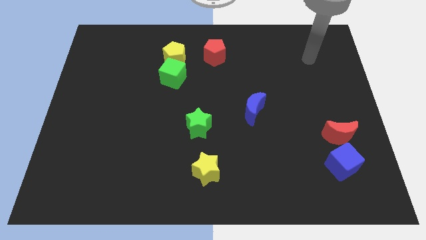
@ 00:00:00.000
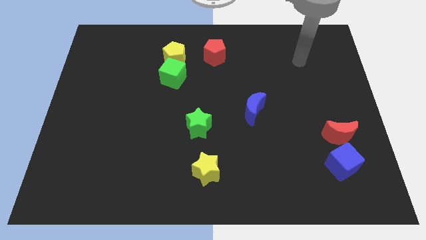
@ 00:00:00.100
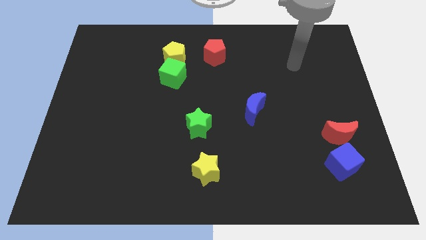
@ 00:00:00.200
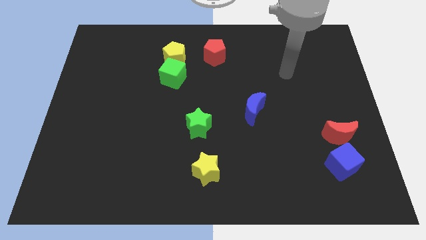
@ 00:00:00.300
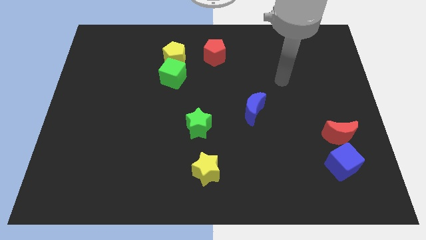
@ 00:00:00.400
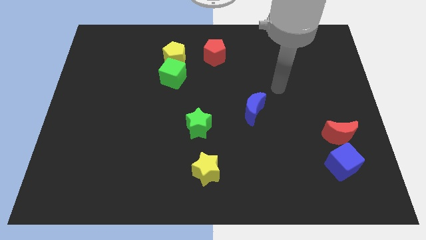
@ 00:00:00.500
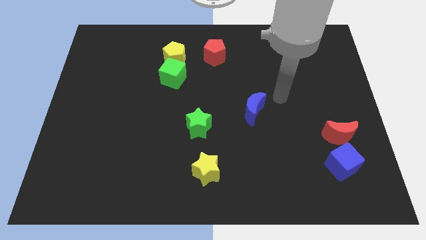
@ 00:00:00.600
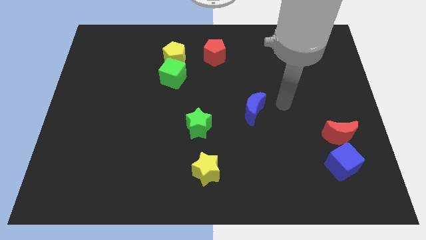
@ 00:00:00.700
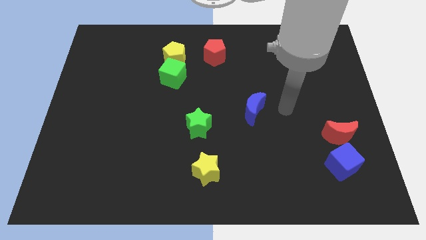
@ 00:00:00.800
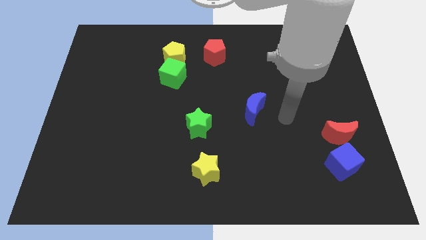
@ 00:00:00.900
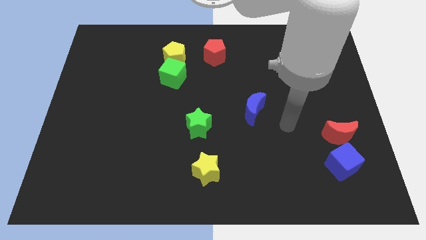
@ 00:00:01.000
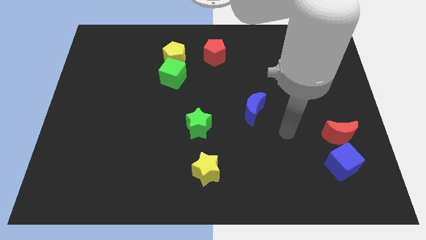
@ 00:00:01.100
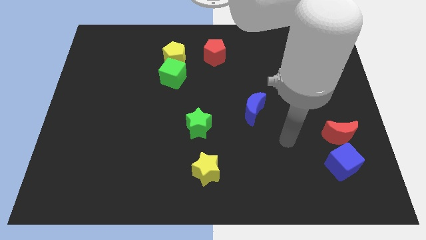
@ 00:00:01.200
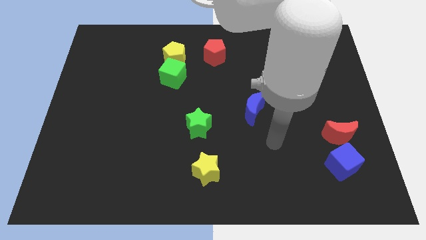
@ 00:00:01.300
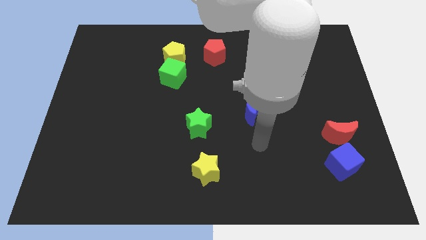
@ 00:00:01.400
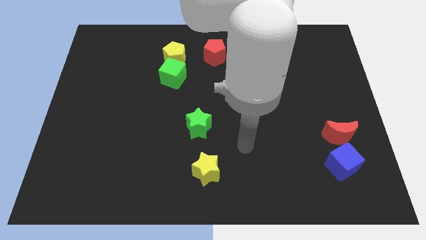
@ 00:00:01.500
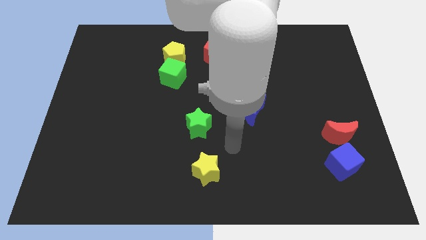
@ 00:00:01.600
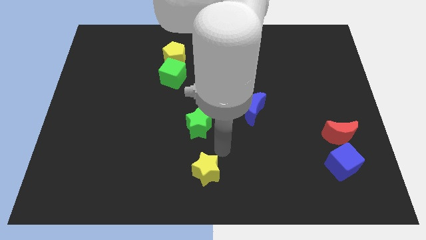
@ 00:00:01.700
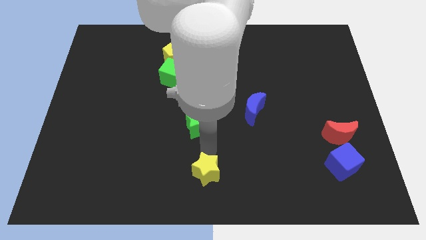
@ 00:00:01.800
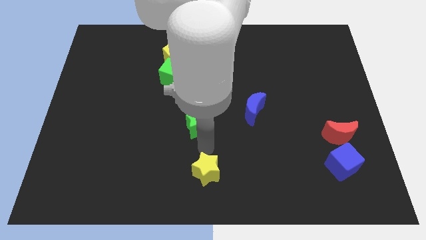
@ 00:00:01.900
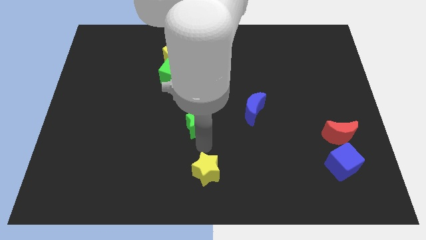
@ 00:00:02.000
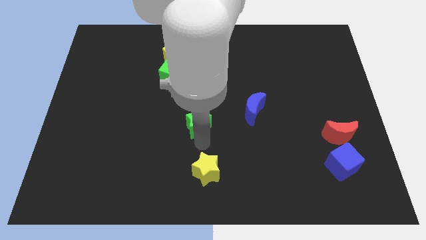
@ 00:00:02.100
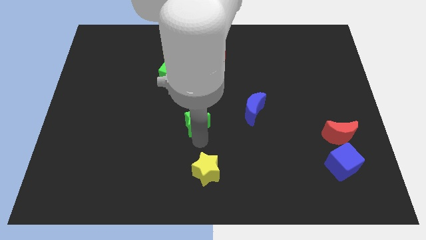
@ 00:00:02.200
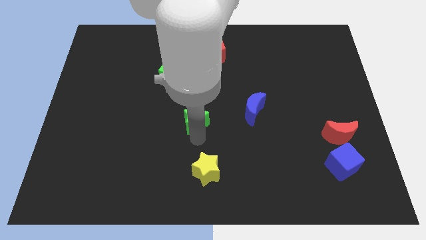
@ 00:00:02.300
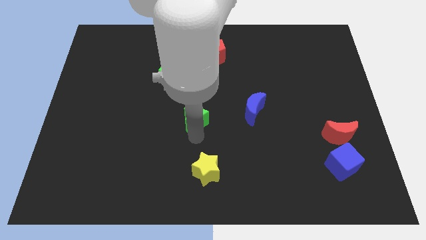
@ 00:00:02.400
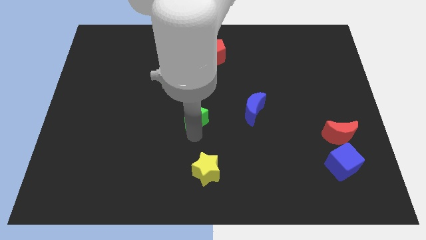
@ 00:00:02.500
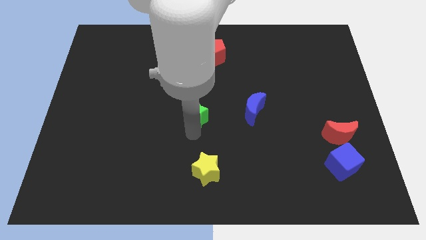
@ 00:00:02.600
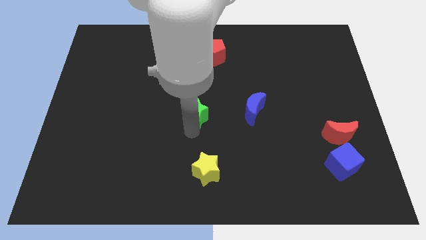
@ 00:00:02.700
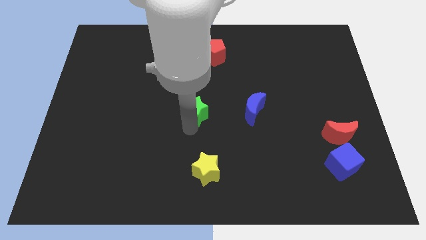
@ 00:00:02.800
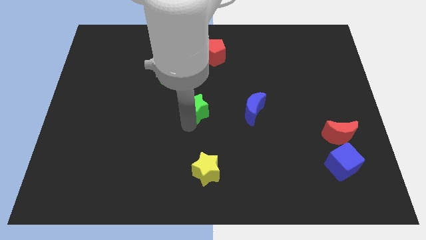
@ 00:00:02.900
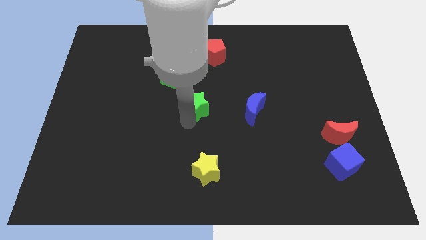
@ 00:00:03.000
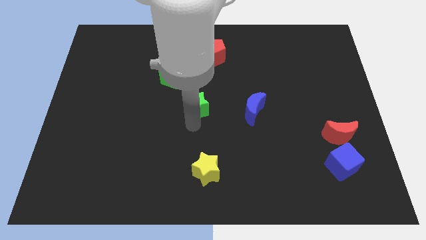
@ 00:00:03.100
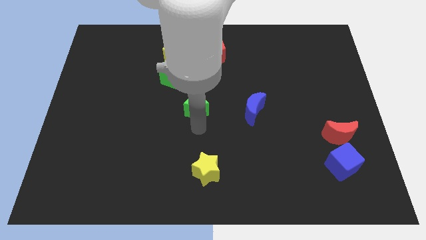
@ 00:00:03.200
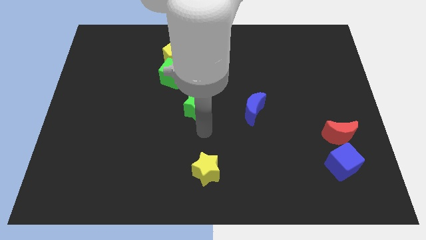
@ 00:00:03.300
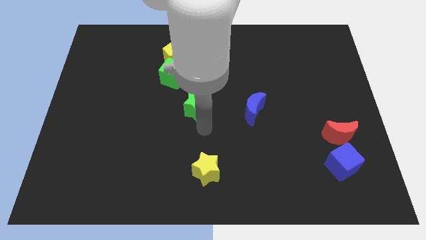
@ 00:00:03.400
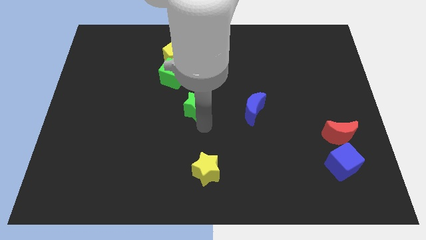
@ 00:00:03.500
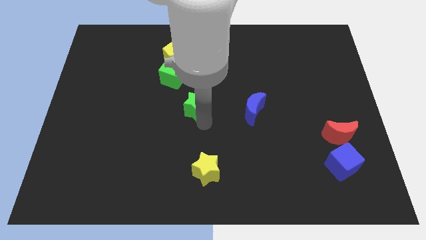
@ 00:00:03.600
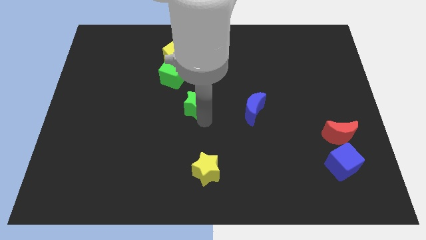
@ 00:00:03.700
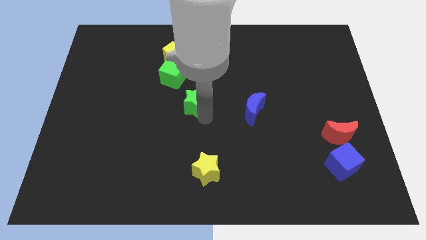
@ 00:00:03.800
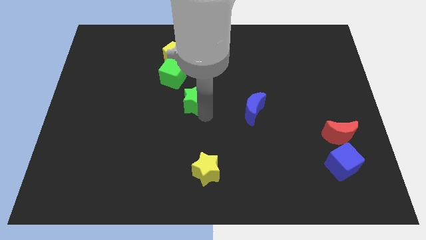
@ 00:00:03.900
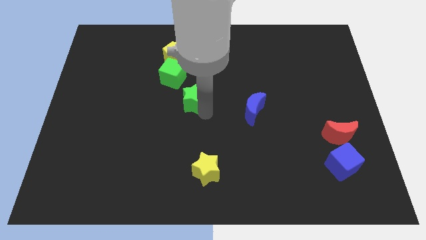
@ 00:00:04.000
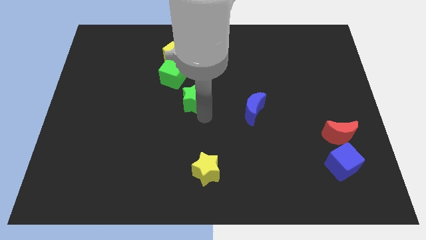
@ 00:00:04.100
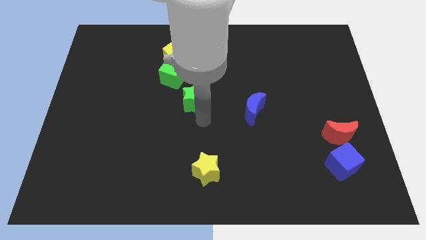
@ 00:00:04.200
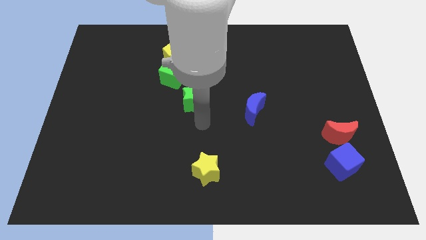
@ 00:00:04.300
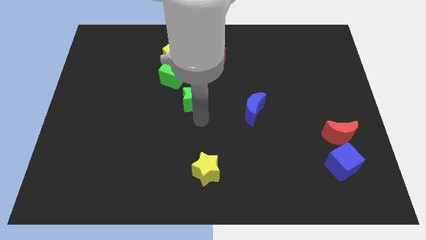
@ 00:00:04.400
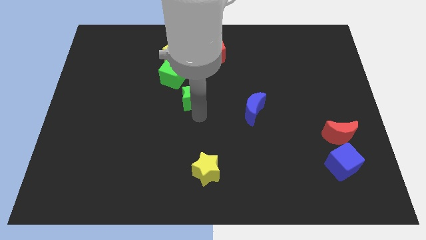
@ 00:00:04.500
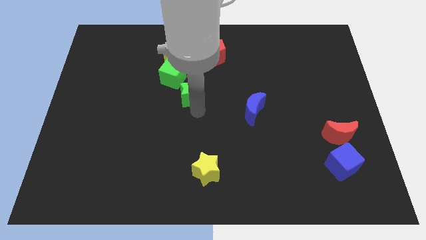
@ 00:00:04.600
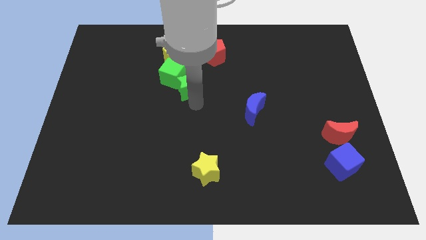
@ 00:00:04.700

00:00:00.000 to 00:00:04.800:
slide the green star next to the green cube

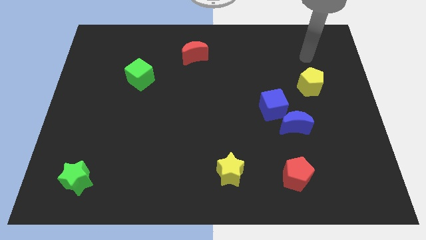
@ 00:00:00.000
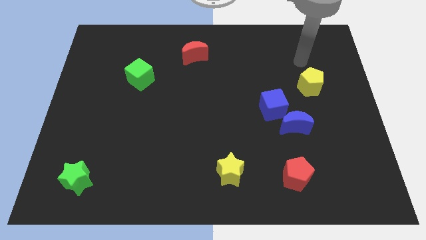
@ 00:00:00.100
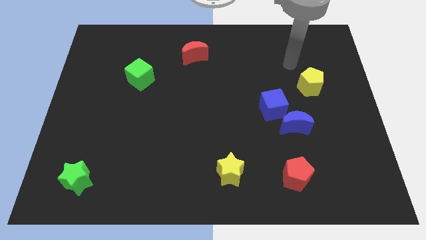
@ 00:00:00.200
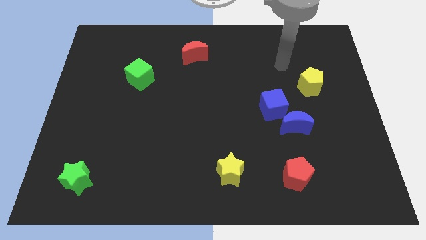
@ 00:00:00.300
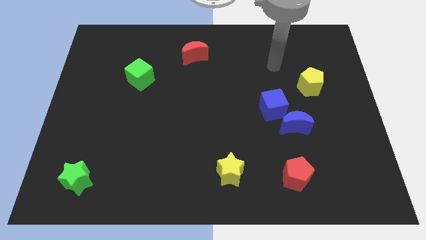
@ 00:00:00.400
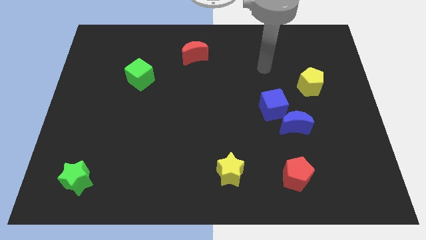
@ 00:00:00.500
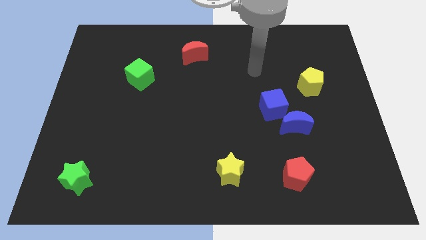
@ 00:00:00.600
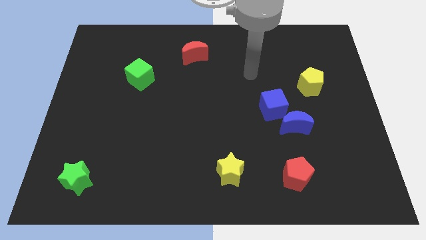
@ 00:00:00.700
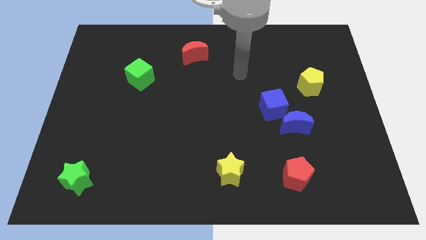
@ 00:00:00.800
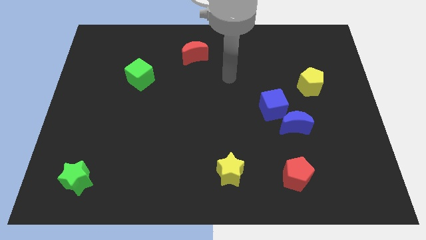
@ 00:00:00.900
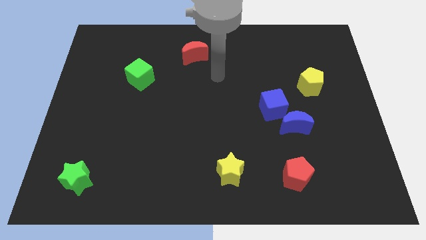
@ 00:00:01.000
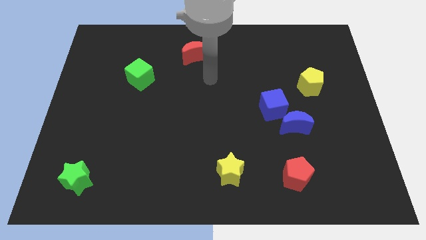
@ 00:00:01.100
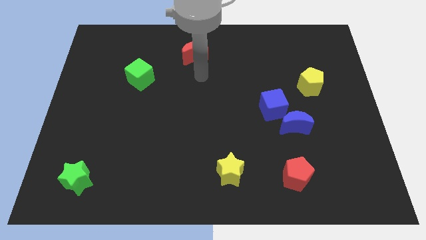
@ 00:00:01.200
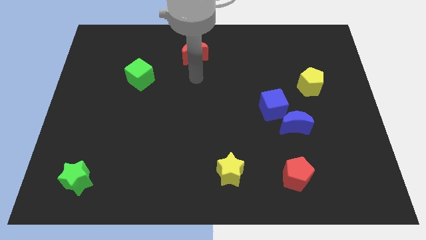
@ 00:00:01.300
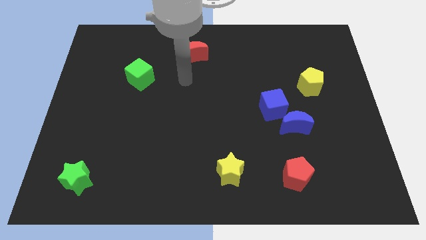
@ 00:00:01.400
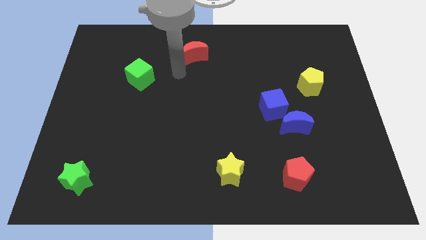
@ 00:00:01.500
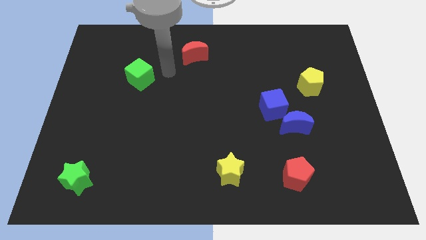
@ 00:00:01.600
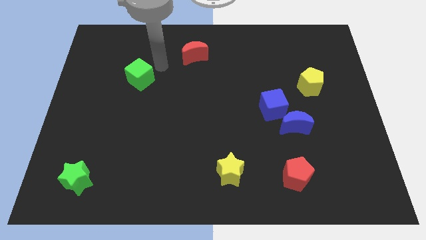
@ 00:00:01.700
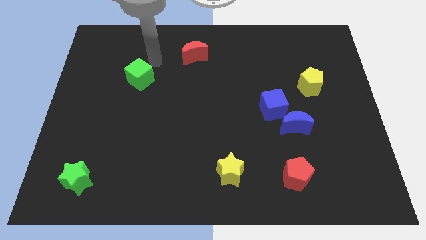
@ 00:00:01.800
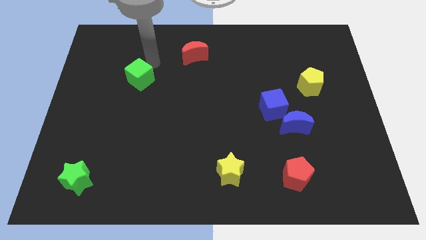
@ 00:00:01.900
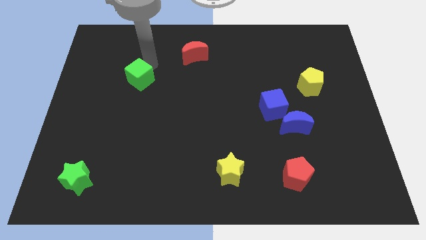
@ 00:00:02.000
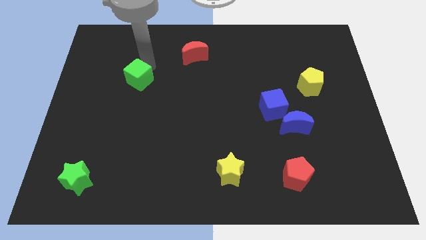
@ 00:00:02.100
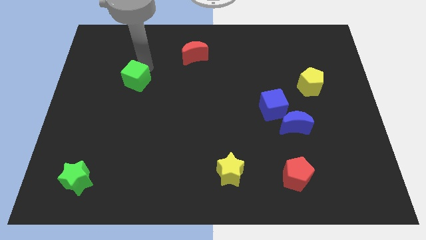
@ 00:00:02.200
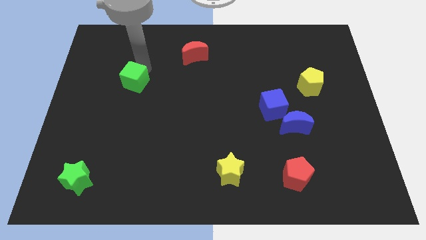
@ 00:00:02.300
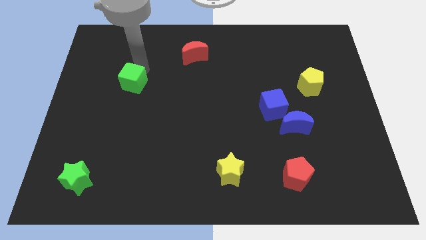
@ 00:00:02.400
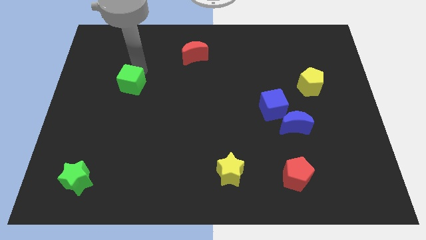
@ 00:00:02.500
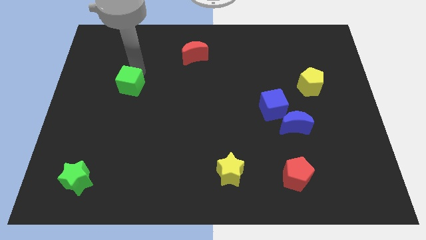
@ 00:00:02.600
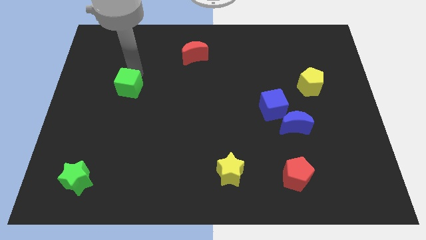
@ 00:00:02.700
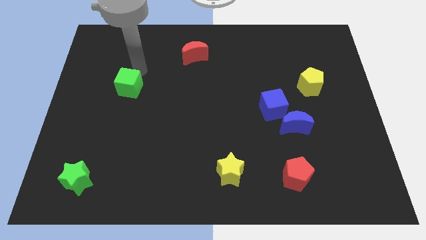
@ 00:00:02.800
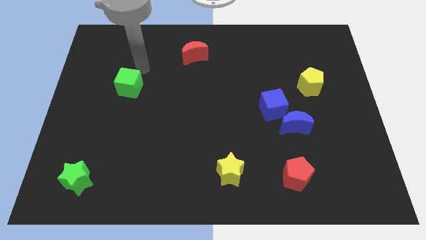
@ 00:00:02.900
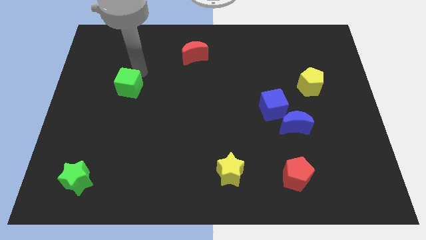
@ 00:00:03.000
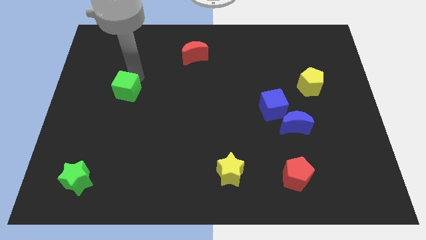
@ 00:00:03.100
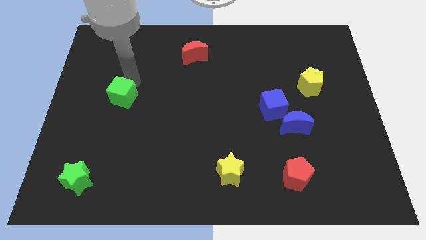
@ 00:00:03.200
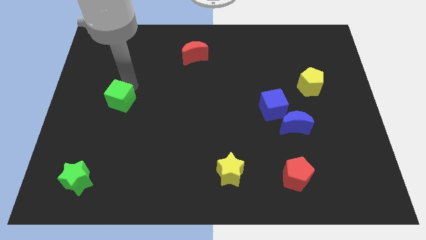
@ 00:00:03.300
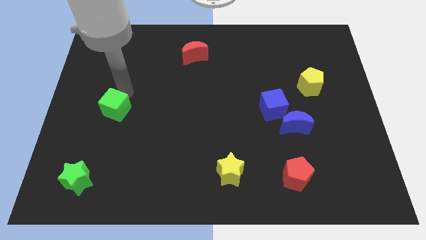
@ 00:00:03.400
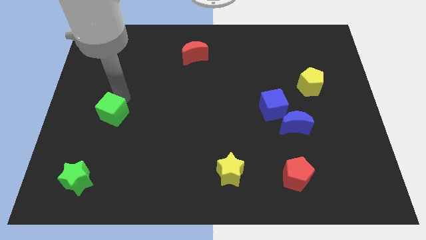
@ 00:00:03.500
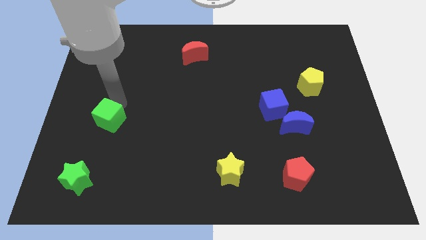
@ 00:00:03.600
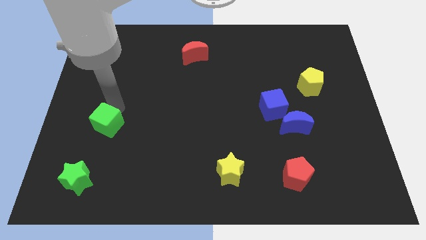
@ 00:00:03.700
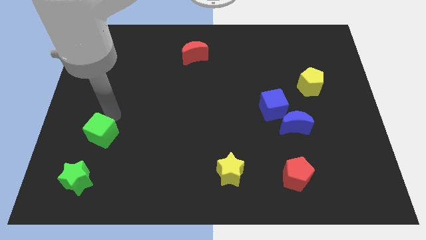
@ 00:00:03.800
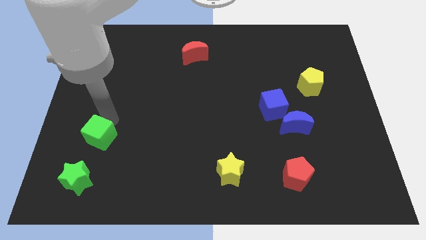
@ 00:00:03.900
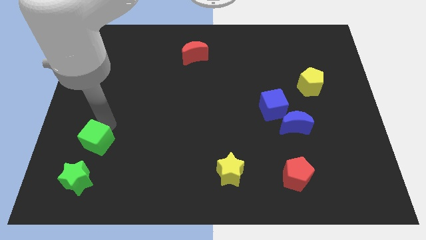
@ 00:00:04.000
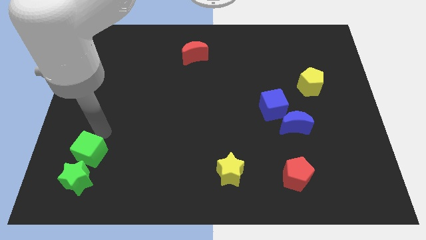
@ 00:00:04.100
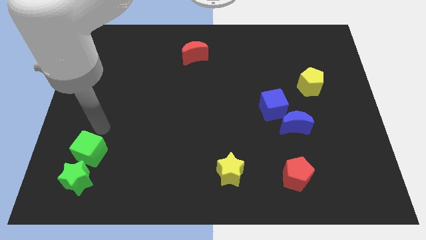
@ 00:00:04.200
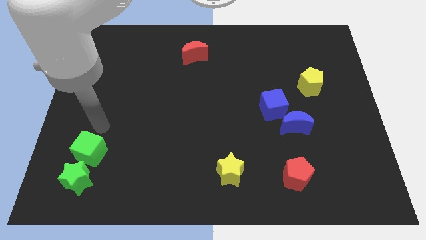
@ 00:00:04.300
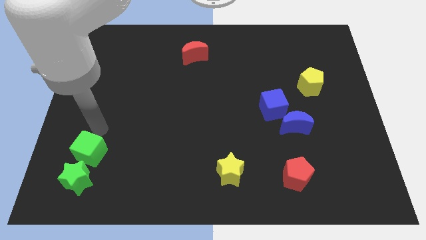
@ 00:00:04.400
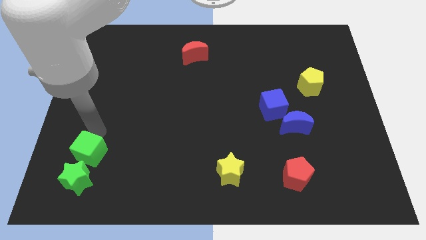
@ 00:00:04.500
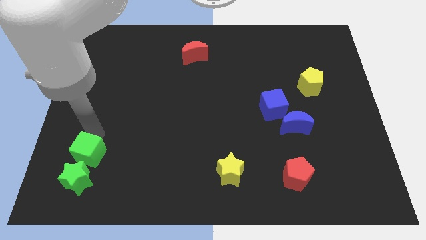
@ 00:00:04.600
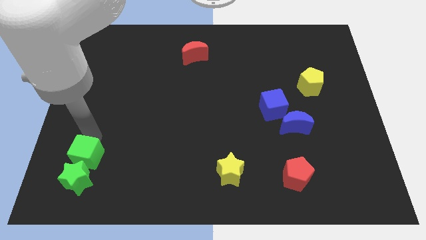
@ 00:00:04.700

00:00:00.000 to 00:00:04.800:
move the green cube towards the green star
